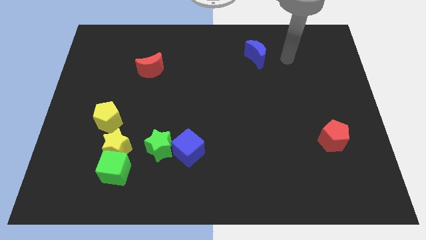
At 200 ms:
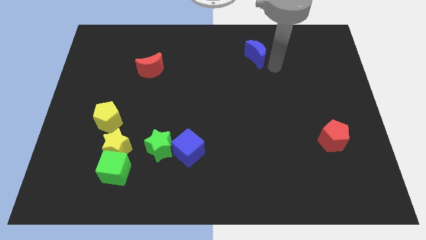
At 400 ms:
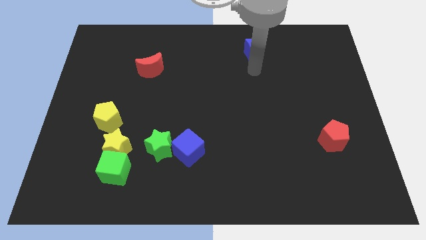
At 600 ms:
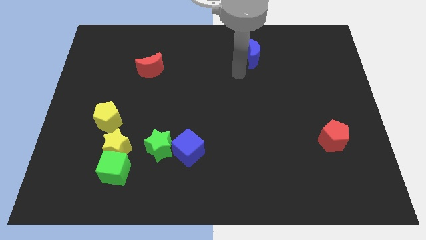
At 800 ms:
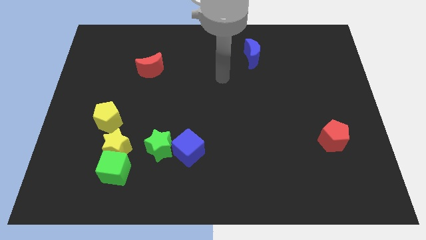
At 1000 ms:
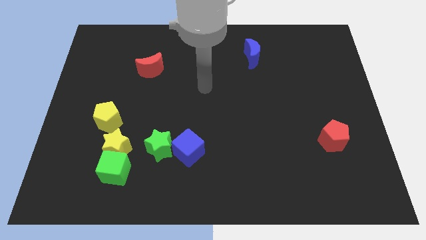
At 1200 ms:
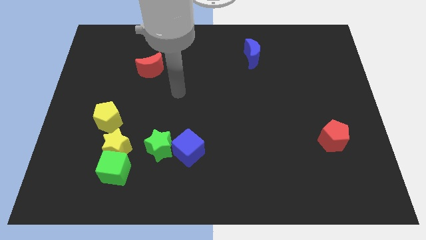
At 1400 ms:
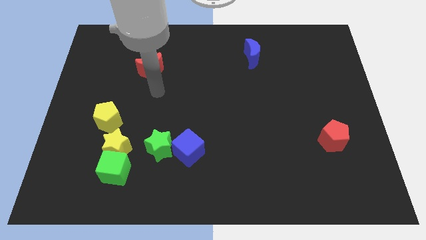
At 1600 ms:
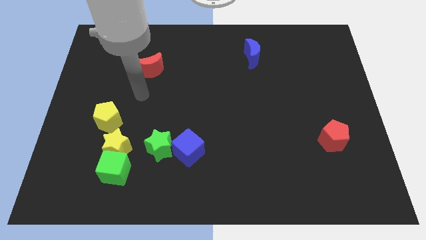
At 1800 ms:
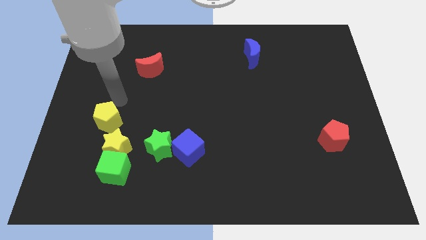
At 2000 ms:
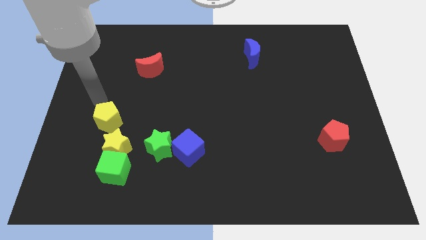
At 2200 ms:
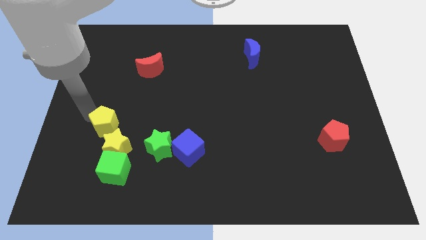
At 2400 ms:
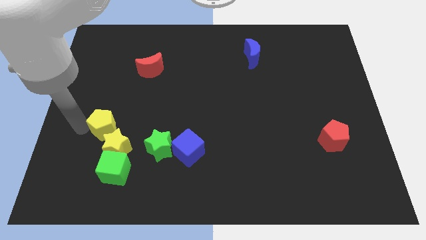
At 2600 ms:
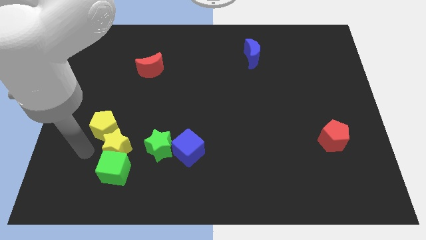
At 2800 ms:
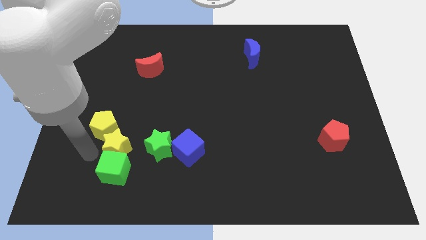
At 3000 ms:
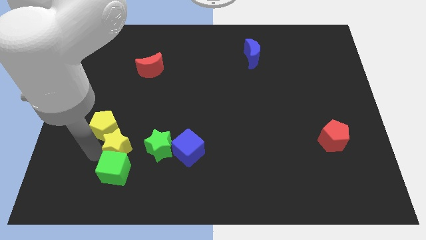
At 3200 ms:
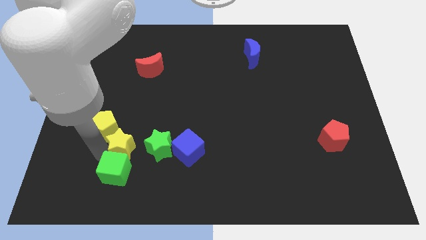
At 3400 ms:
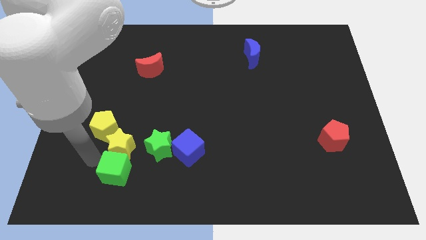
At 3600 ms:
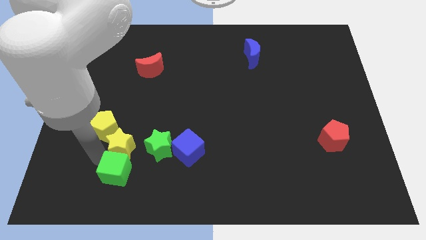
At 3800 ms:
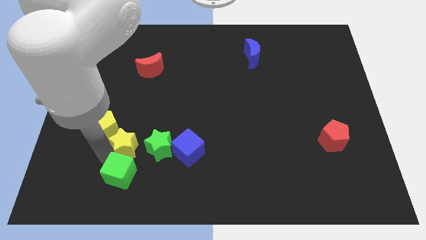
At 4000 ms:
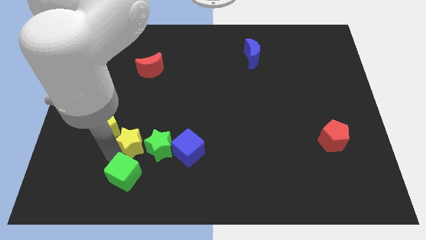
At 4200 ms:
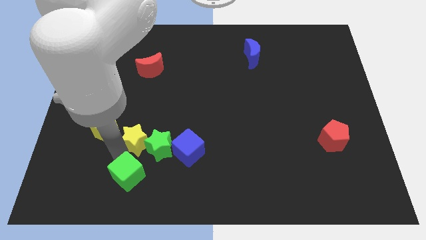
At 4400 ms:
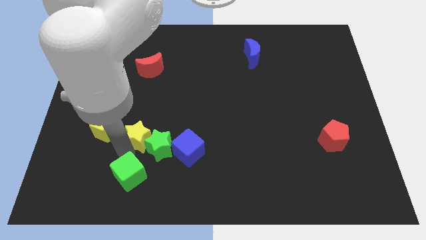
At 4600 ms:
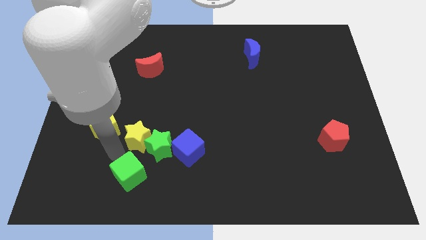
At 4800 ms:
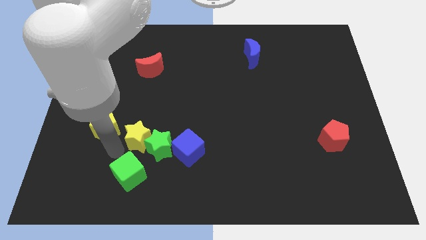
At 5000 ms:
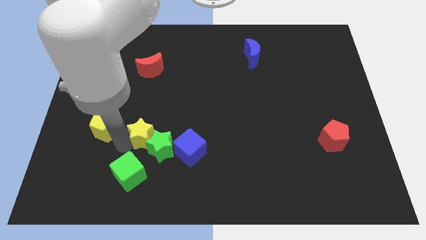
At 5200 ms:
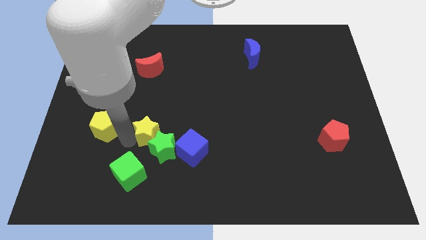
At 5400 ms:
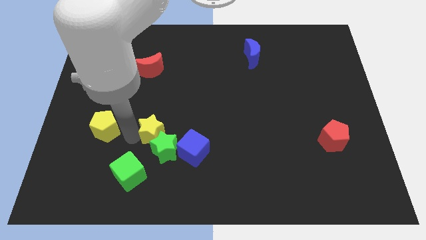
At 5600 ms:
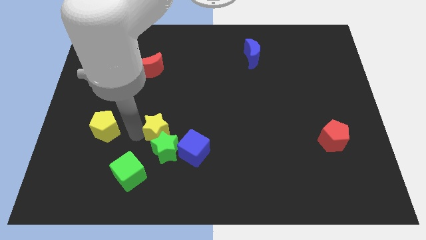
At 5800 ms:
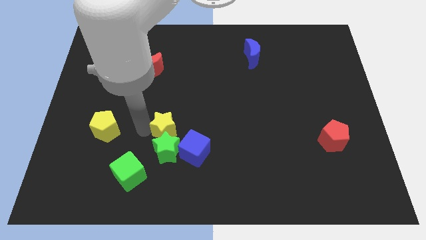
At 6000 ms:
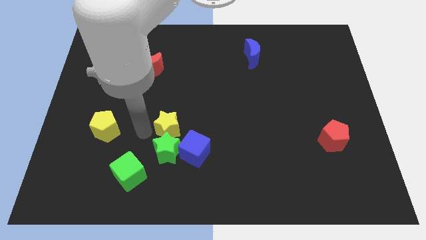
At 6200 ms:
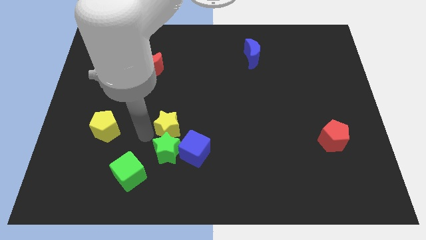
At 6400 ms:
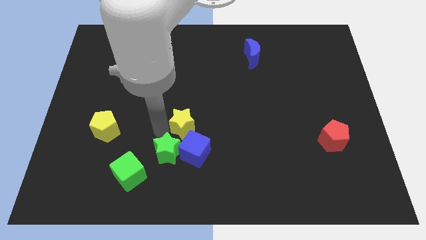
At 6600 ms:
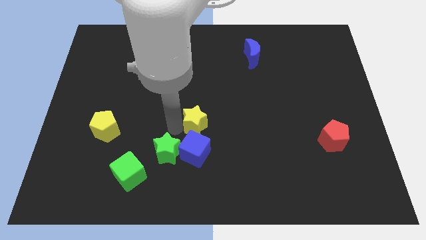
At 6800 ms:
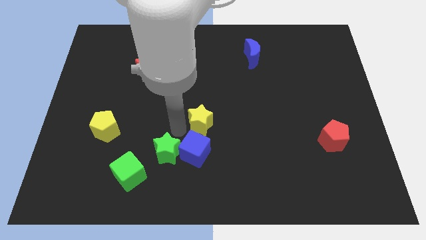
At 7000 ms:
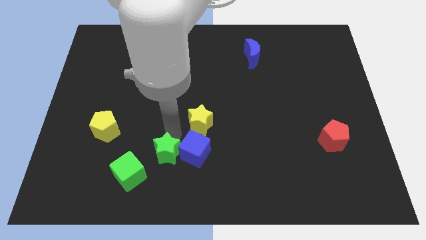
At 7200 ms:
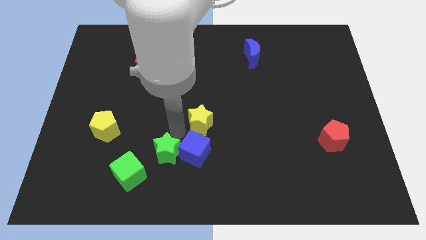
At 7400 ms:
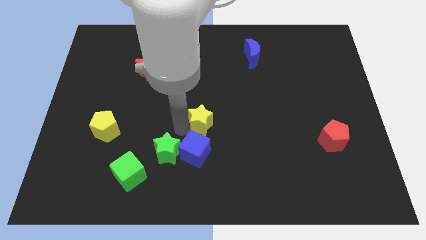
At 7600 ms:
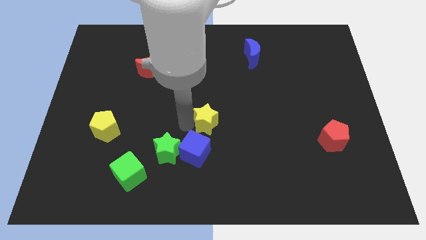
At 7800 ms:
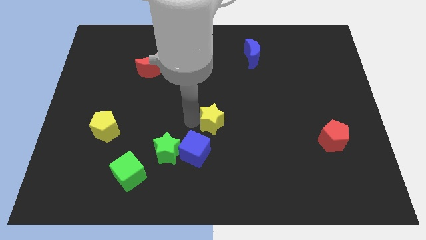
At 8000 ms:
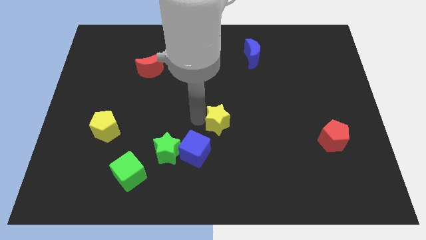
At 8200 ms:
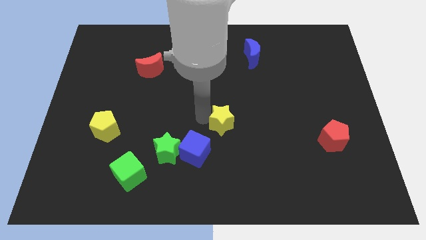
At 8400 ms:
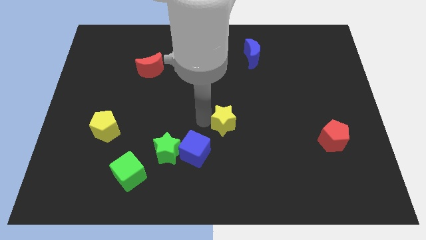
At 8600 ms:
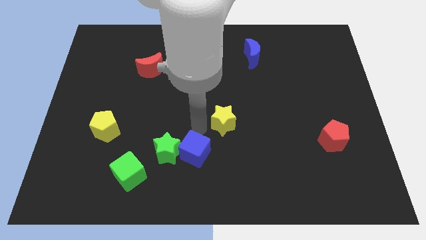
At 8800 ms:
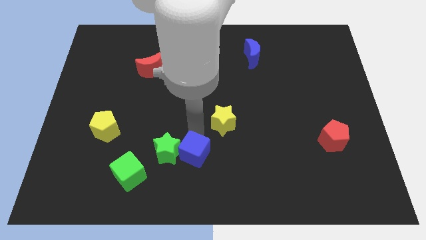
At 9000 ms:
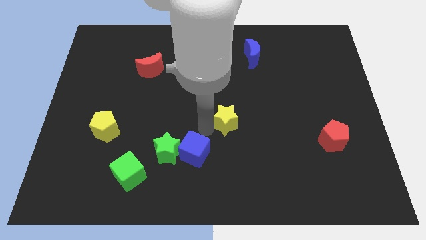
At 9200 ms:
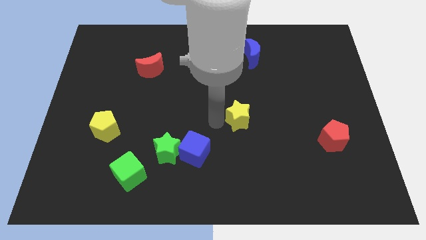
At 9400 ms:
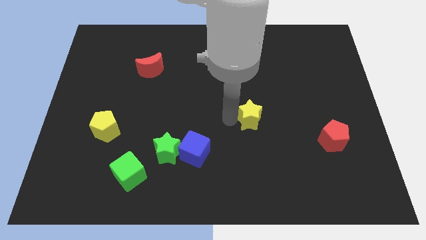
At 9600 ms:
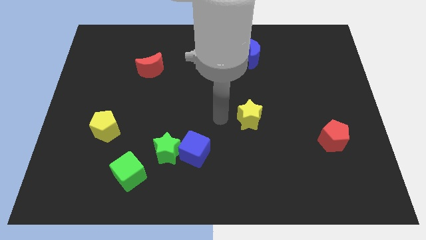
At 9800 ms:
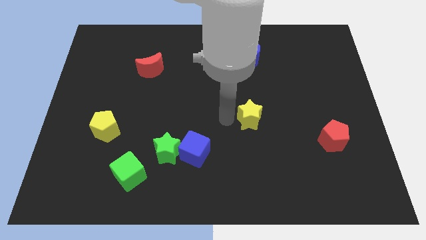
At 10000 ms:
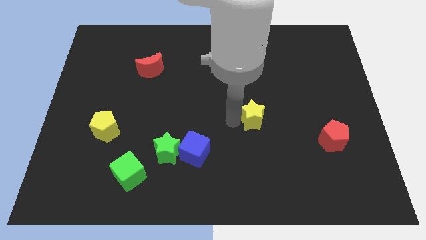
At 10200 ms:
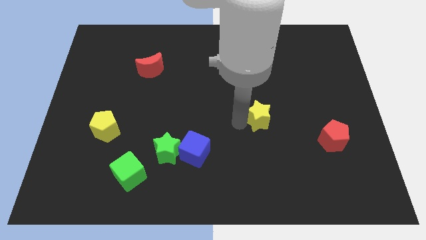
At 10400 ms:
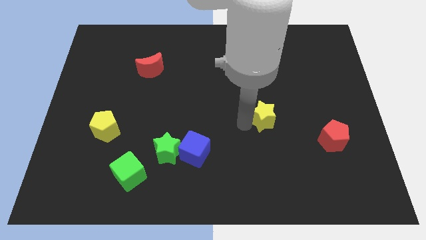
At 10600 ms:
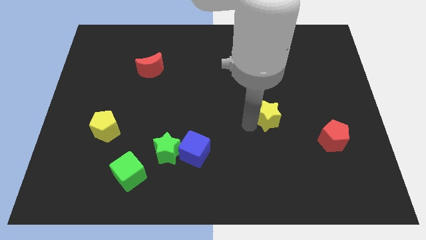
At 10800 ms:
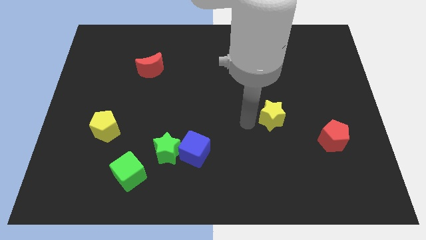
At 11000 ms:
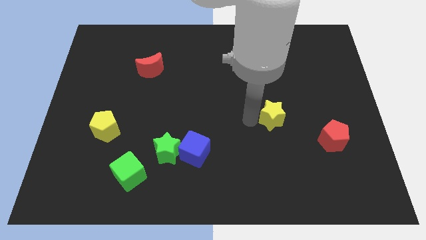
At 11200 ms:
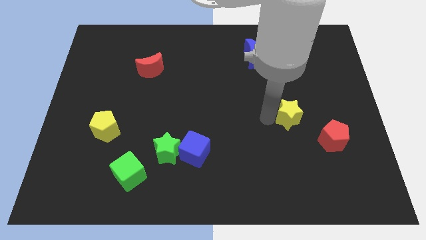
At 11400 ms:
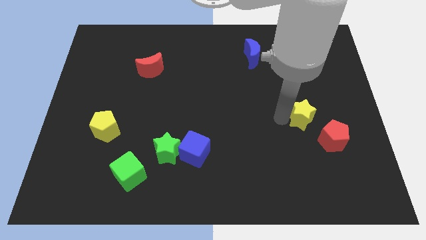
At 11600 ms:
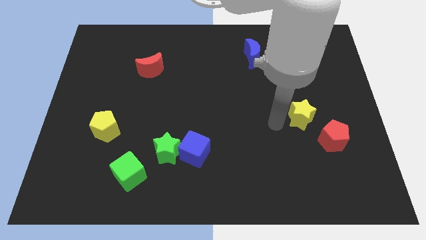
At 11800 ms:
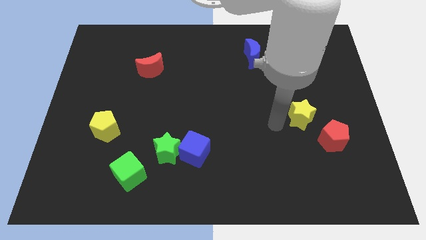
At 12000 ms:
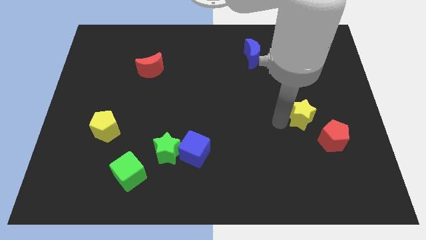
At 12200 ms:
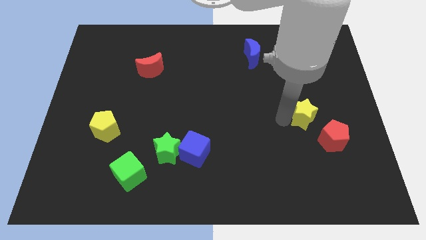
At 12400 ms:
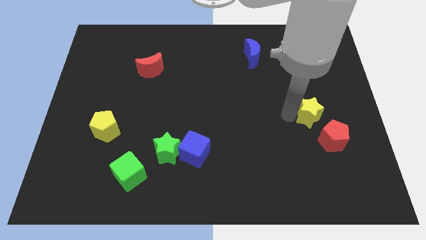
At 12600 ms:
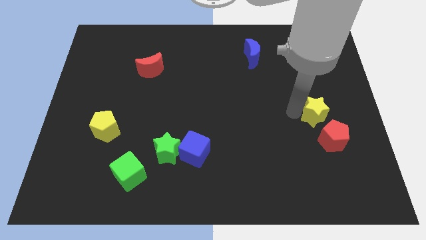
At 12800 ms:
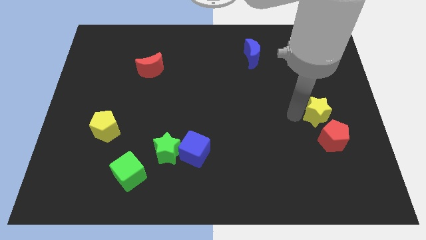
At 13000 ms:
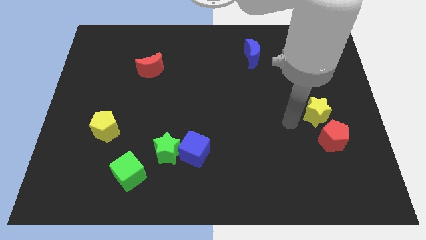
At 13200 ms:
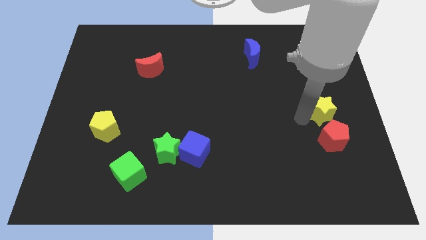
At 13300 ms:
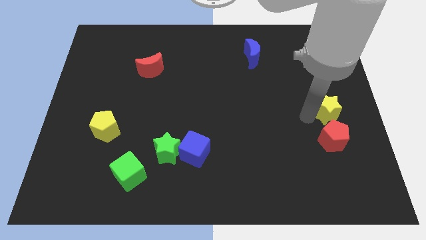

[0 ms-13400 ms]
slide the yellow star to the center right
